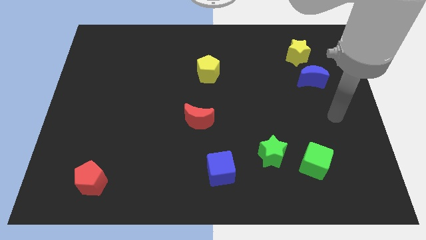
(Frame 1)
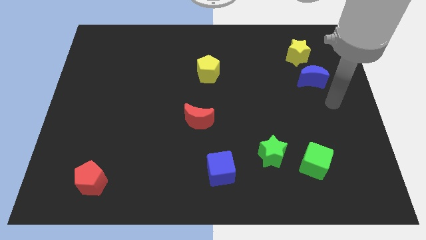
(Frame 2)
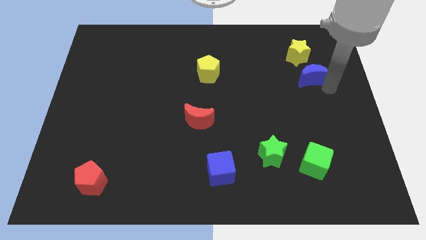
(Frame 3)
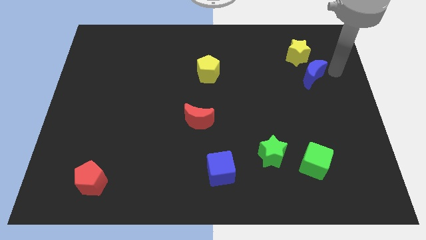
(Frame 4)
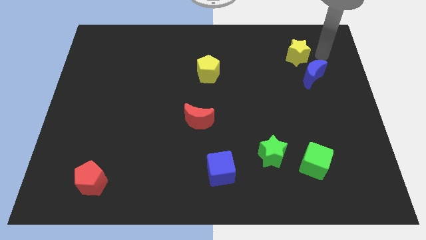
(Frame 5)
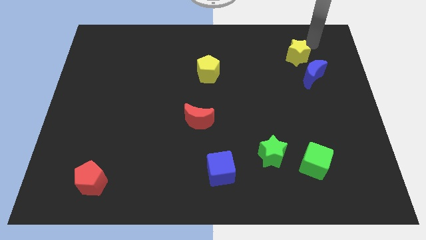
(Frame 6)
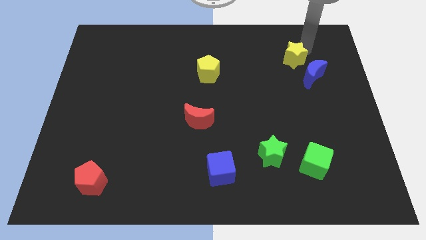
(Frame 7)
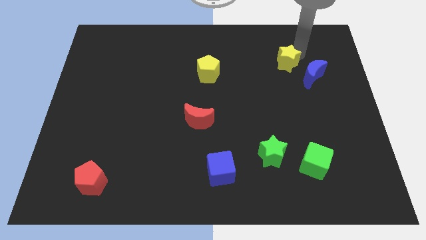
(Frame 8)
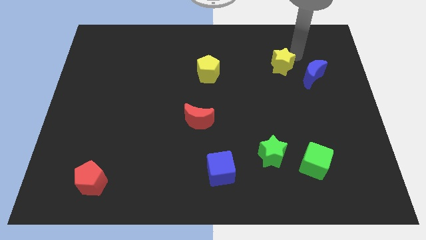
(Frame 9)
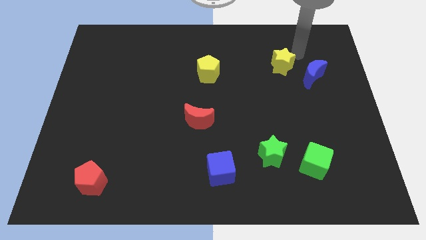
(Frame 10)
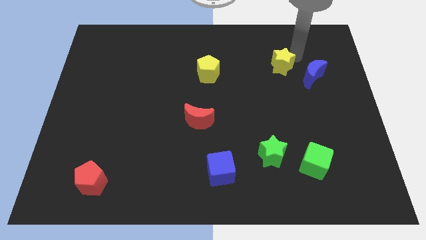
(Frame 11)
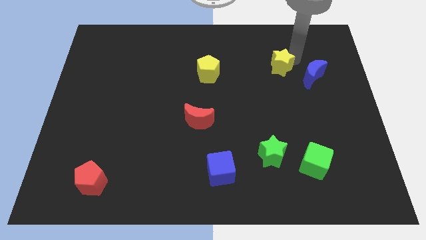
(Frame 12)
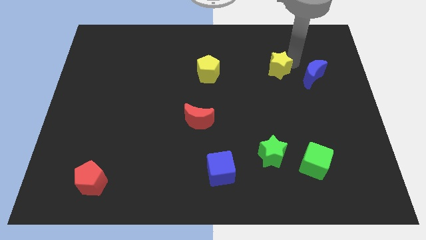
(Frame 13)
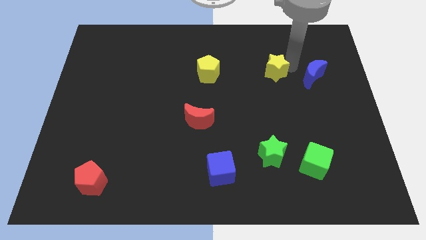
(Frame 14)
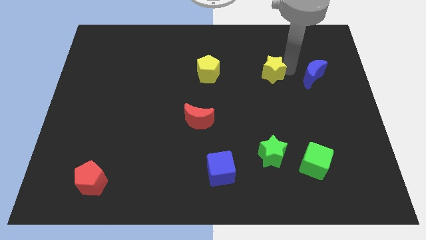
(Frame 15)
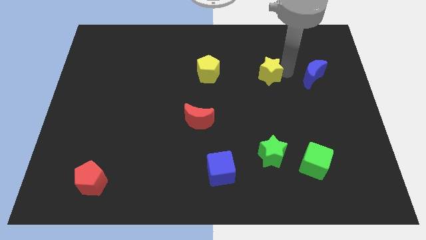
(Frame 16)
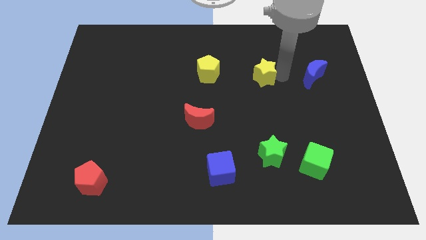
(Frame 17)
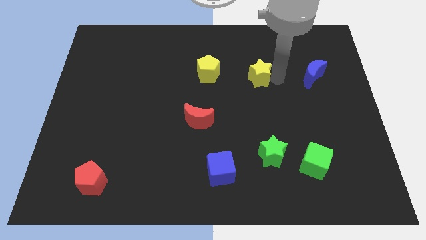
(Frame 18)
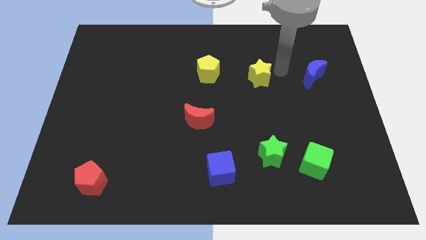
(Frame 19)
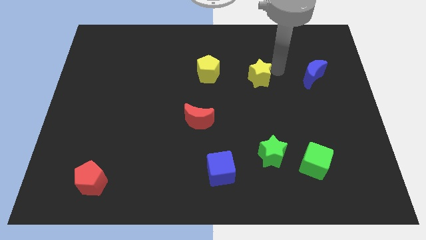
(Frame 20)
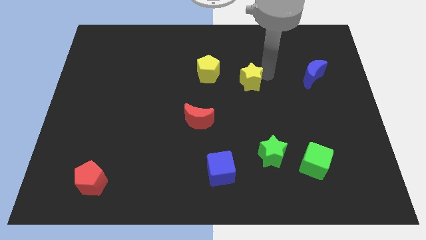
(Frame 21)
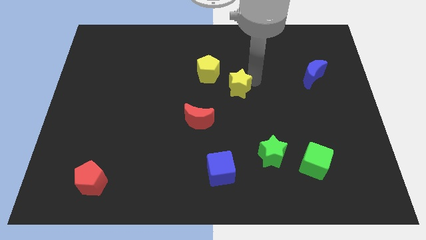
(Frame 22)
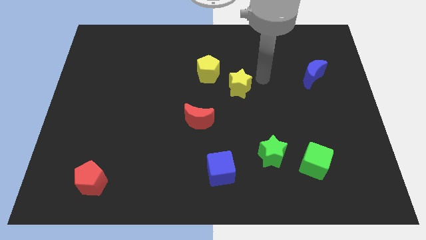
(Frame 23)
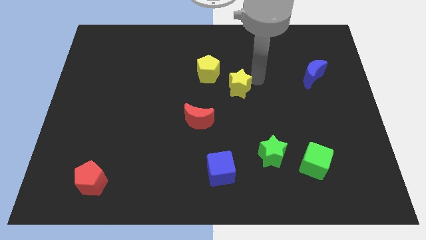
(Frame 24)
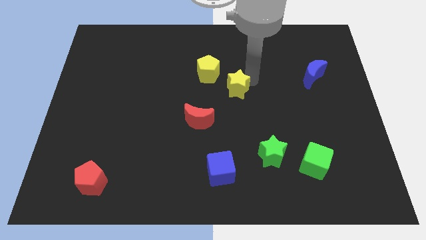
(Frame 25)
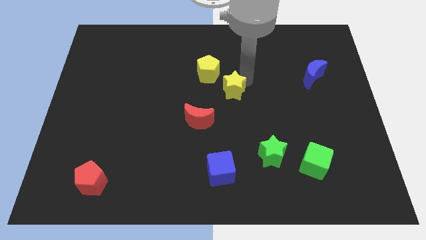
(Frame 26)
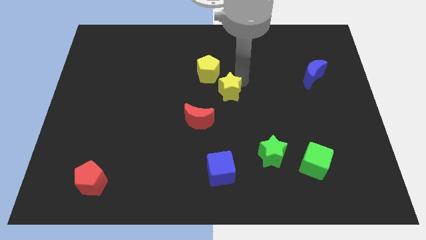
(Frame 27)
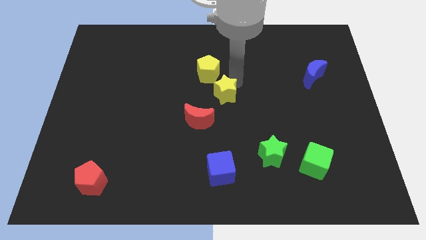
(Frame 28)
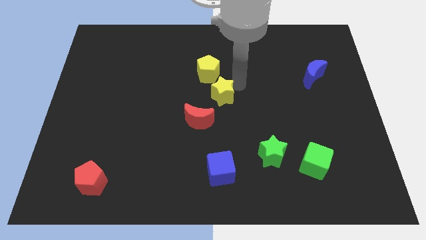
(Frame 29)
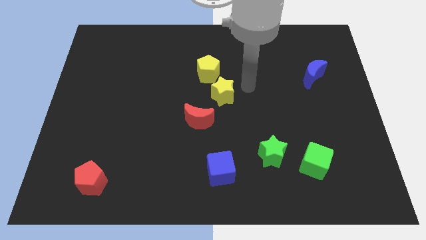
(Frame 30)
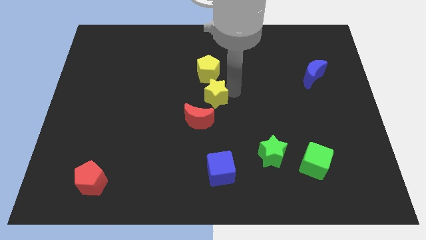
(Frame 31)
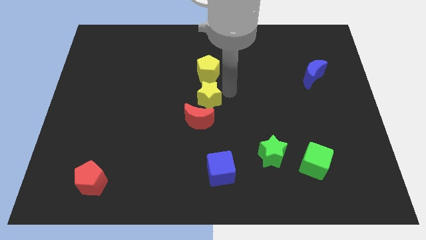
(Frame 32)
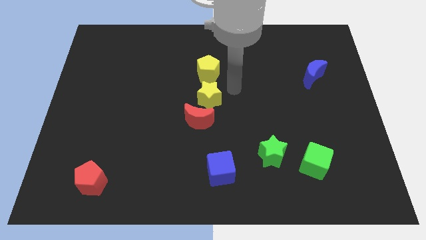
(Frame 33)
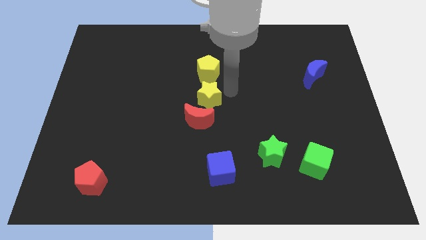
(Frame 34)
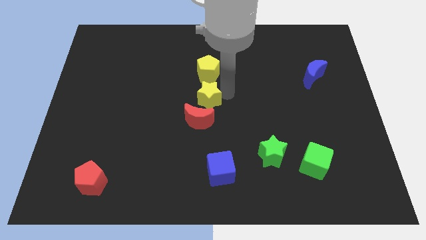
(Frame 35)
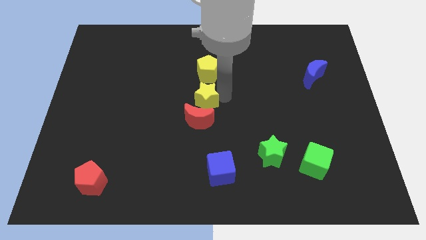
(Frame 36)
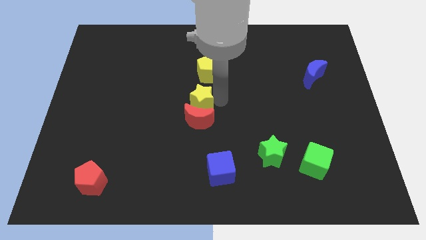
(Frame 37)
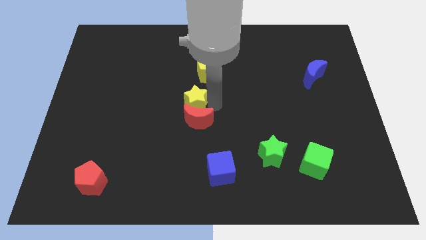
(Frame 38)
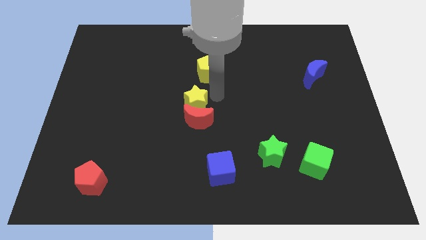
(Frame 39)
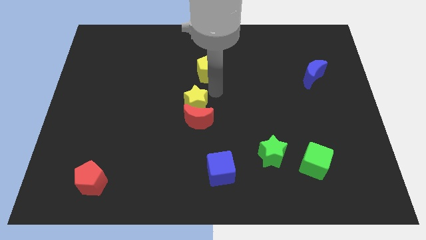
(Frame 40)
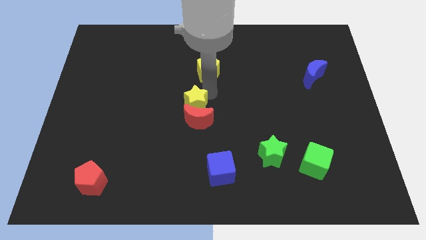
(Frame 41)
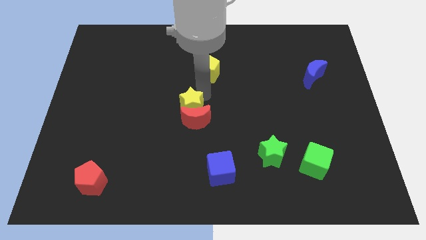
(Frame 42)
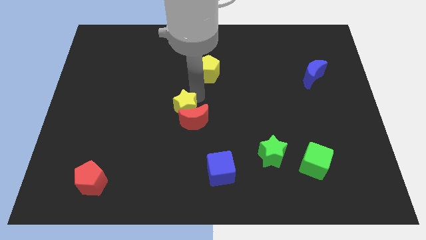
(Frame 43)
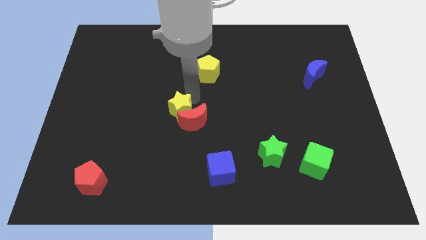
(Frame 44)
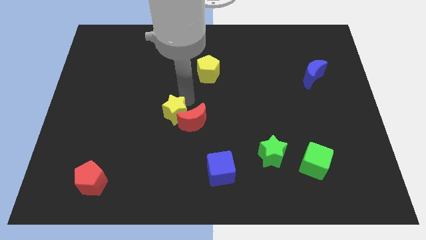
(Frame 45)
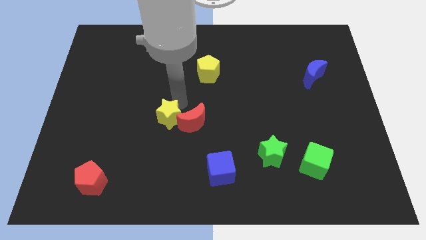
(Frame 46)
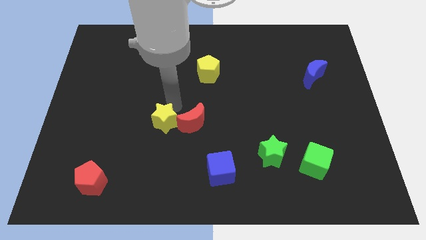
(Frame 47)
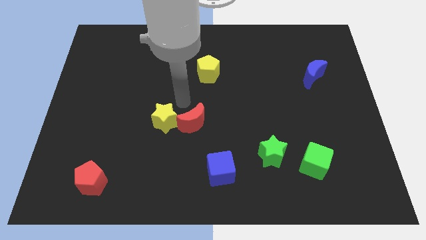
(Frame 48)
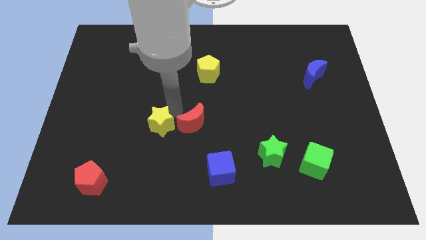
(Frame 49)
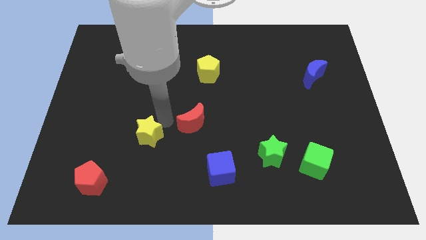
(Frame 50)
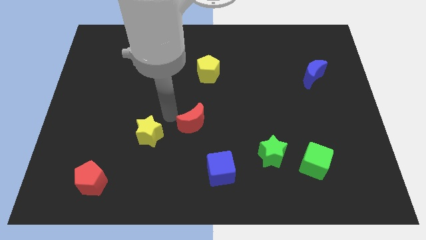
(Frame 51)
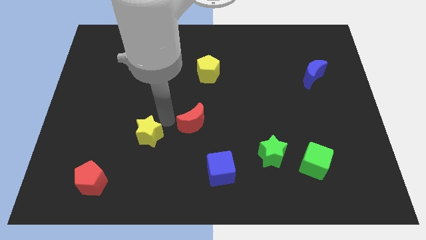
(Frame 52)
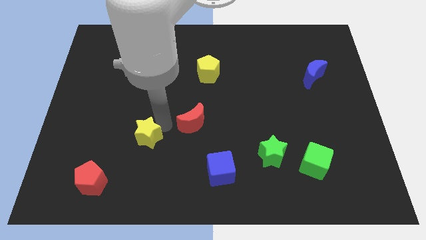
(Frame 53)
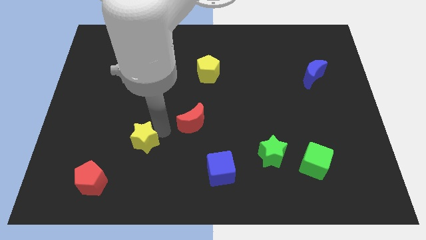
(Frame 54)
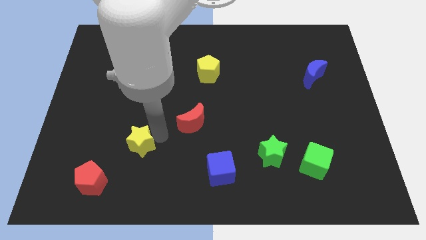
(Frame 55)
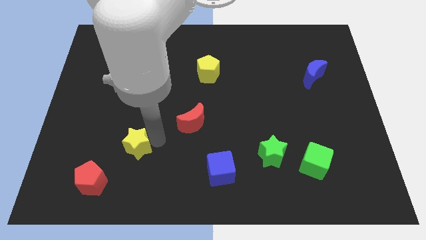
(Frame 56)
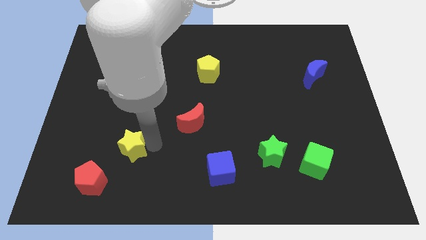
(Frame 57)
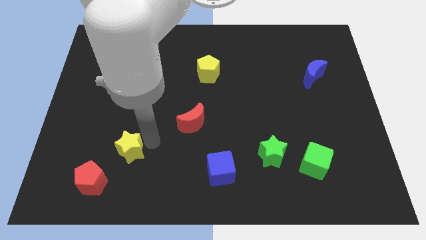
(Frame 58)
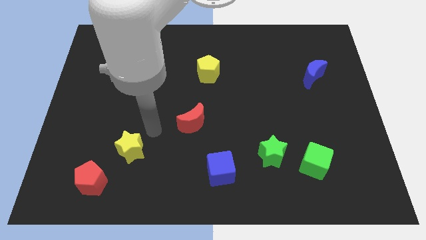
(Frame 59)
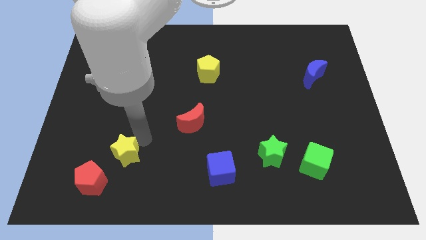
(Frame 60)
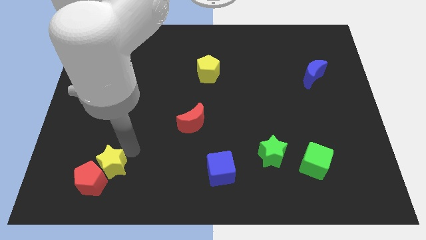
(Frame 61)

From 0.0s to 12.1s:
slide the yellow star next to the red pentagon

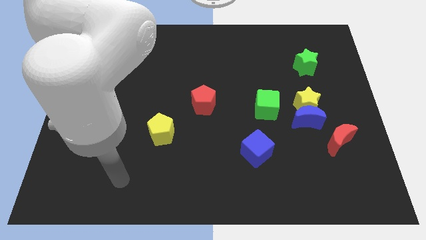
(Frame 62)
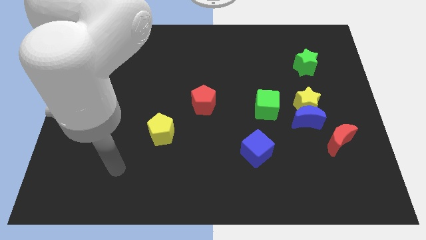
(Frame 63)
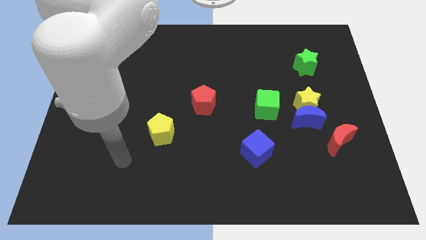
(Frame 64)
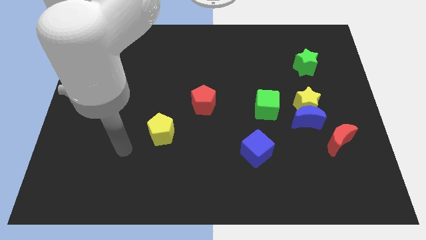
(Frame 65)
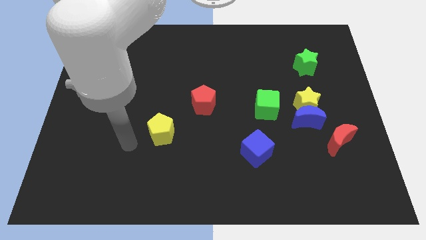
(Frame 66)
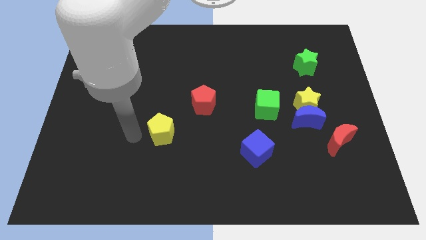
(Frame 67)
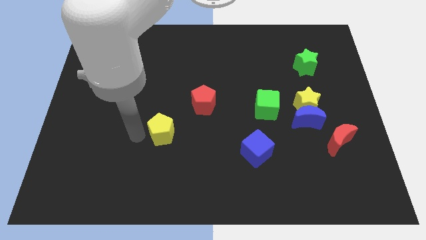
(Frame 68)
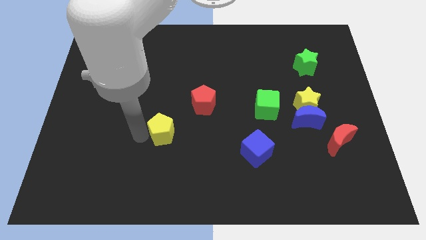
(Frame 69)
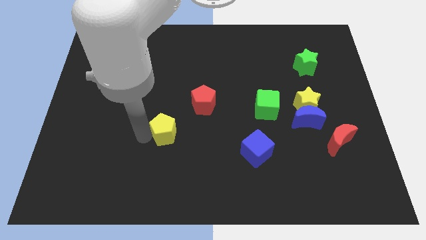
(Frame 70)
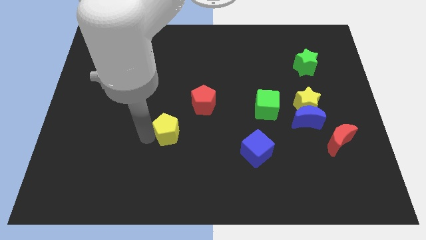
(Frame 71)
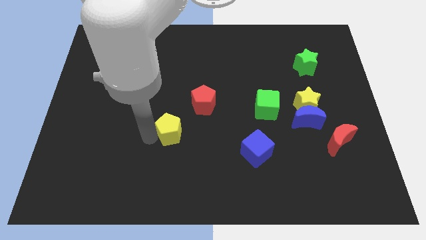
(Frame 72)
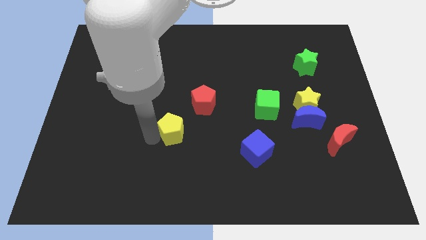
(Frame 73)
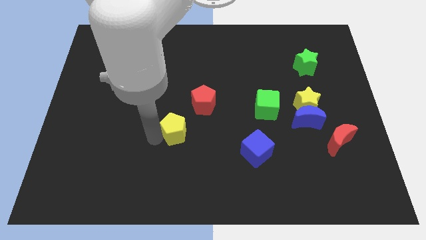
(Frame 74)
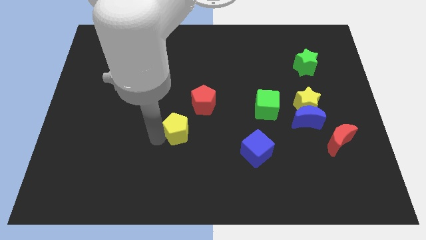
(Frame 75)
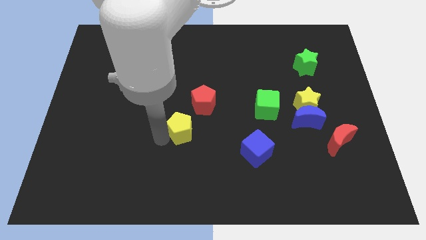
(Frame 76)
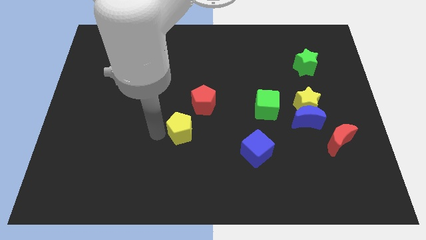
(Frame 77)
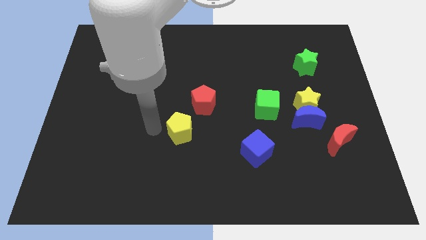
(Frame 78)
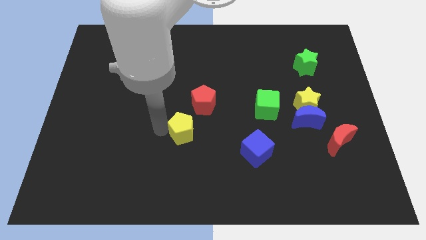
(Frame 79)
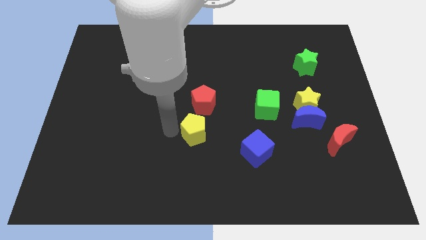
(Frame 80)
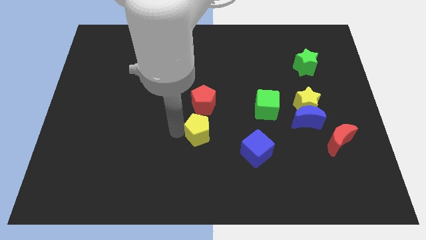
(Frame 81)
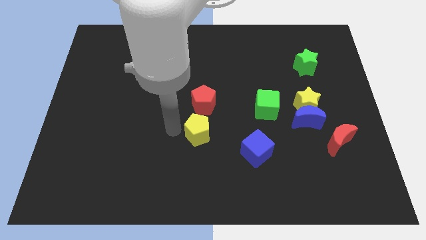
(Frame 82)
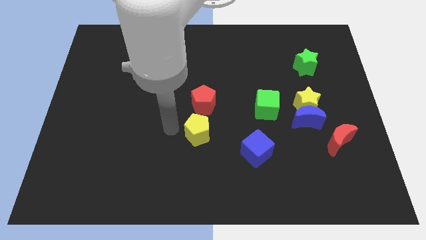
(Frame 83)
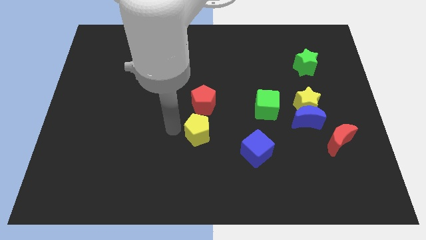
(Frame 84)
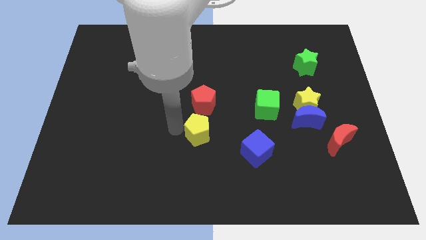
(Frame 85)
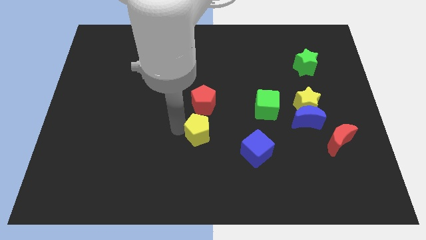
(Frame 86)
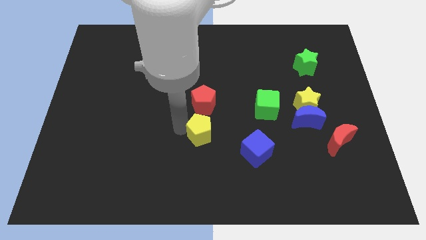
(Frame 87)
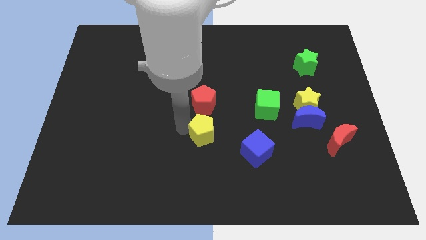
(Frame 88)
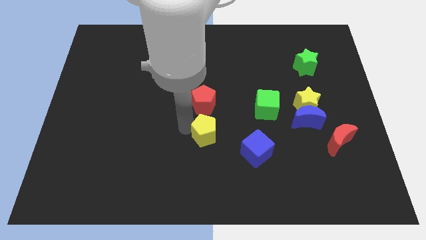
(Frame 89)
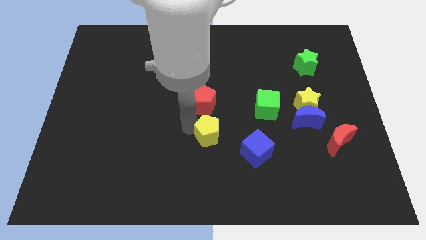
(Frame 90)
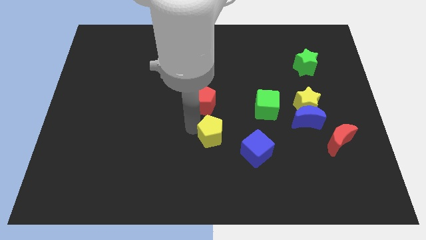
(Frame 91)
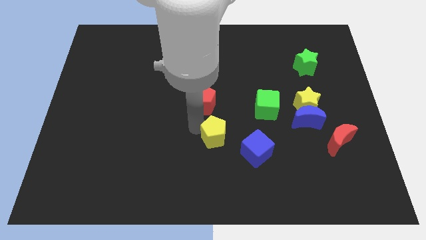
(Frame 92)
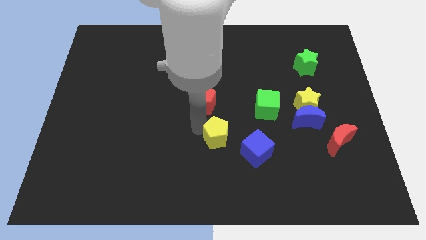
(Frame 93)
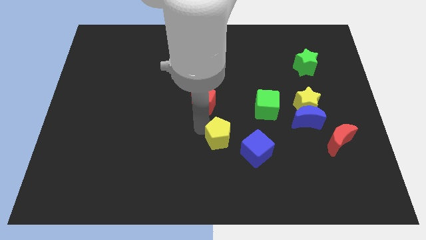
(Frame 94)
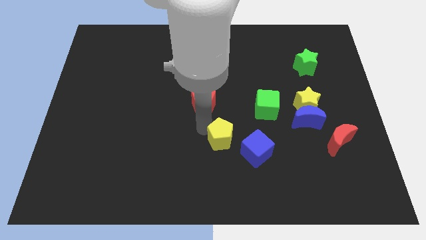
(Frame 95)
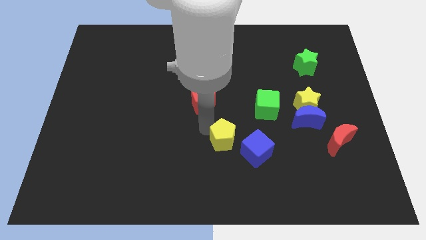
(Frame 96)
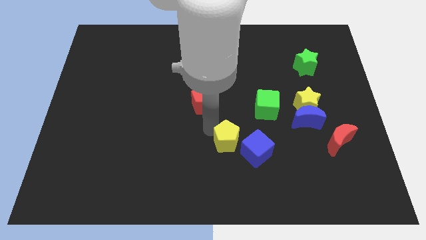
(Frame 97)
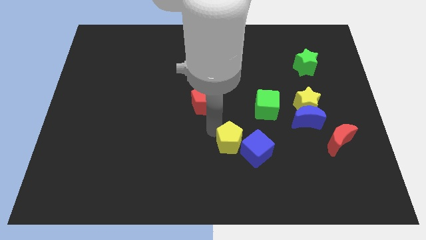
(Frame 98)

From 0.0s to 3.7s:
move the yellow pentagon towards the blue cube
